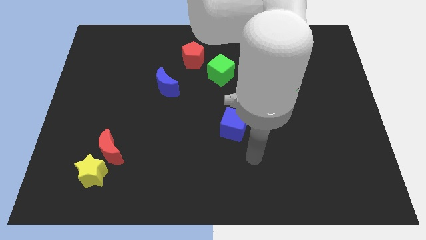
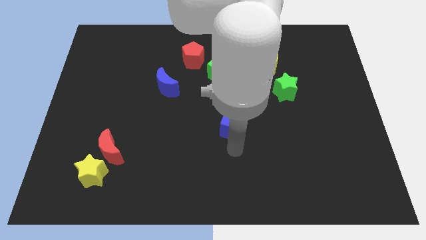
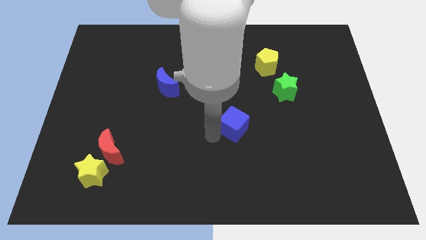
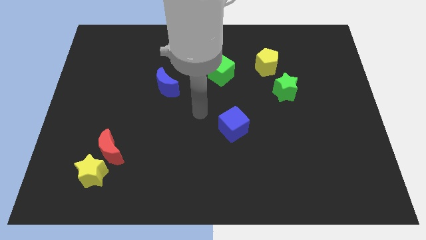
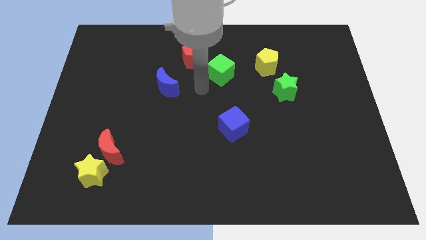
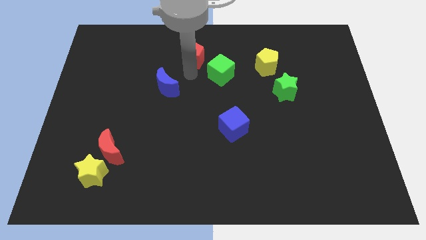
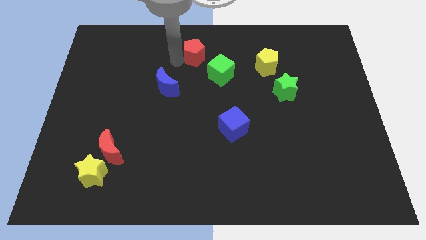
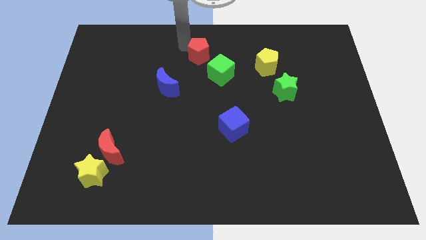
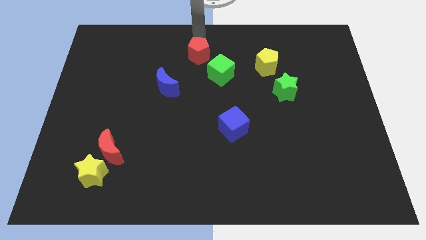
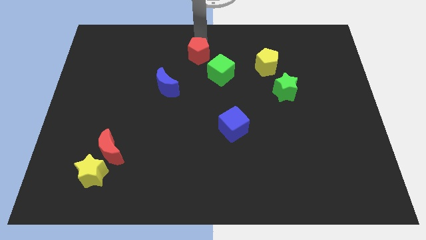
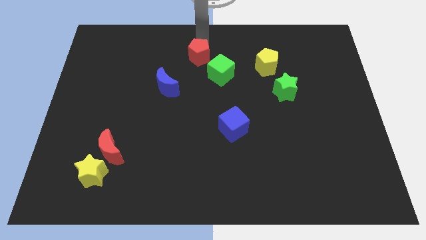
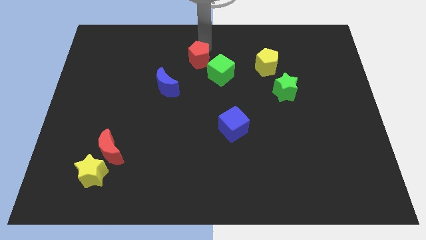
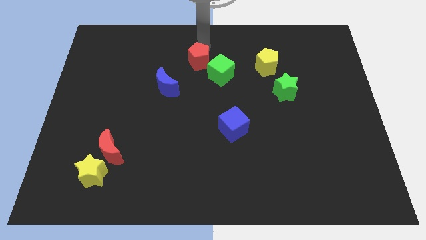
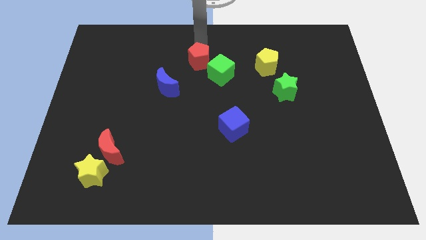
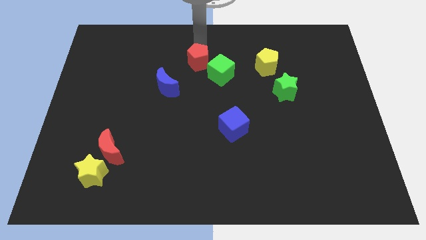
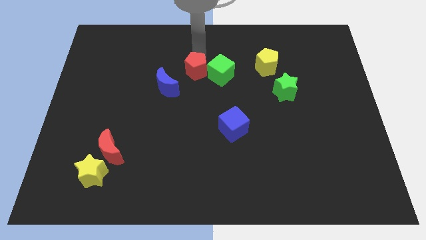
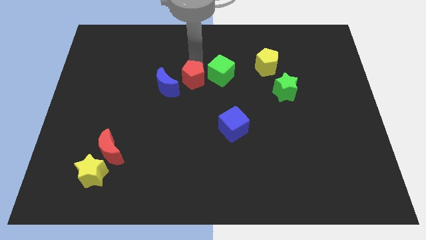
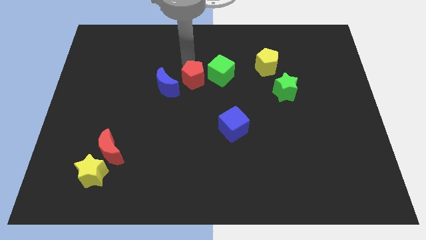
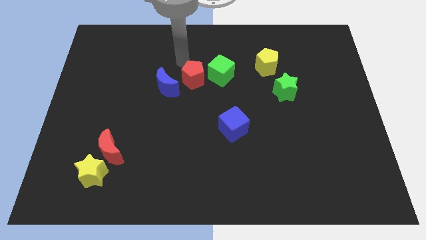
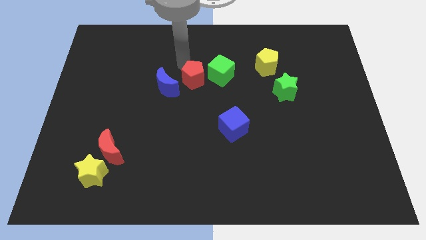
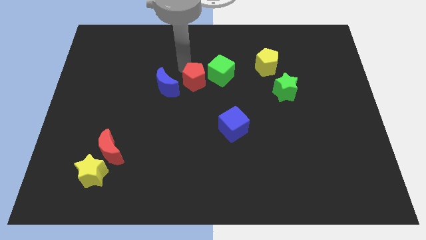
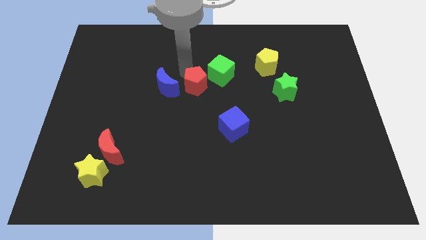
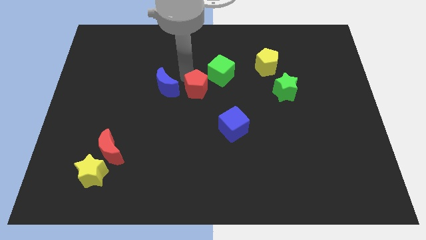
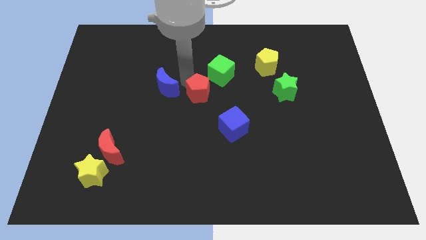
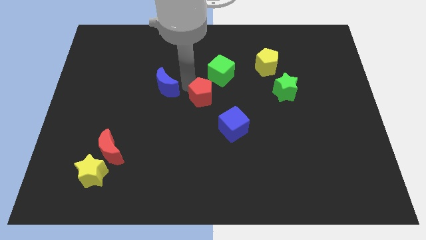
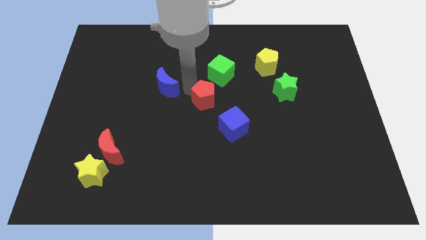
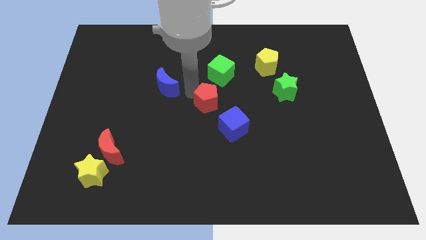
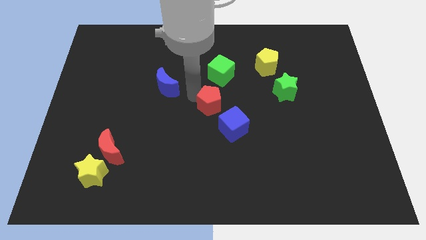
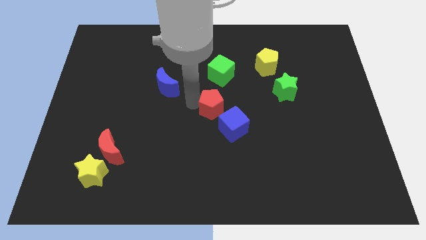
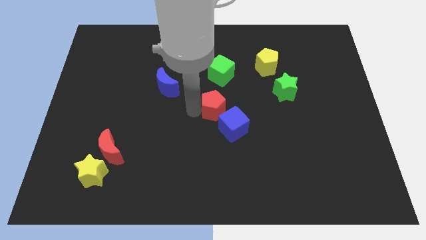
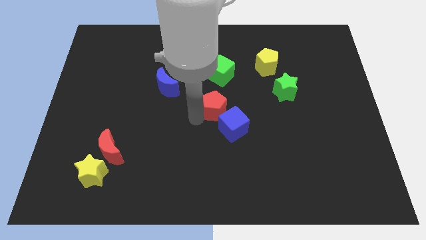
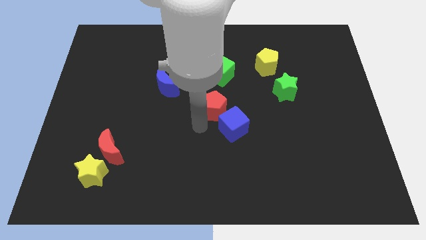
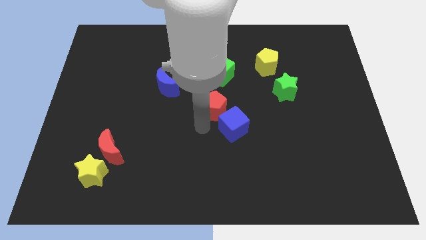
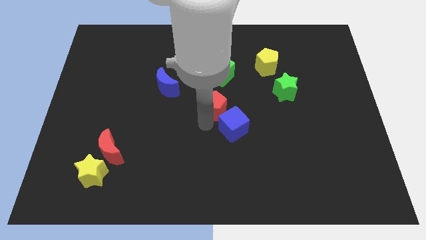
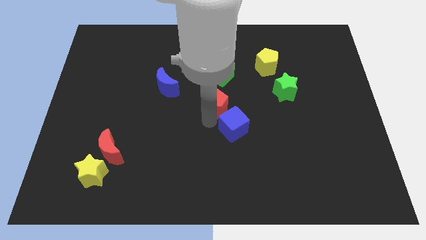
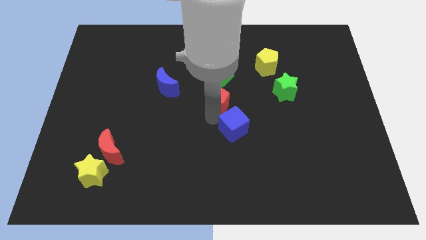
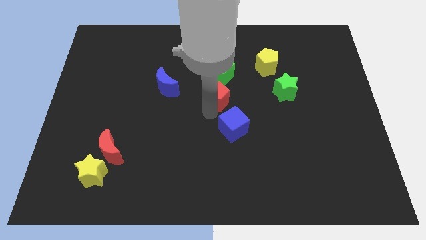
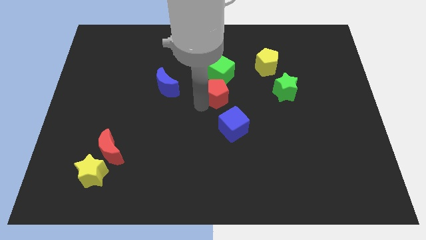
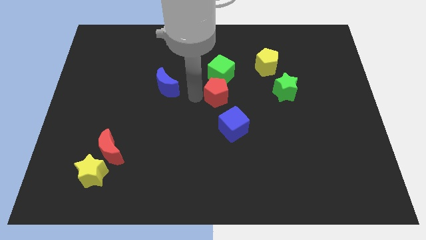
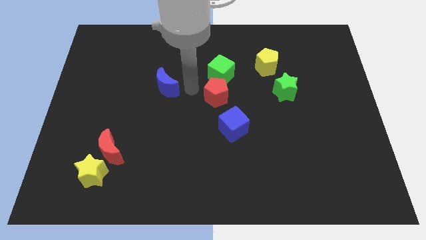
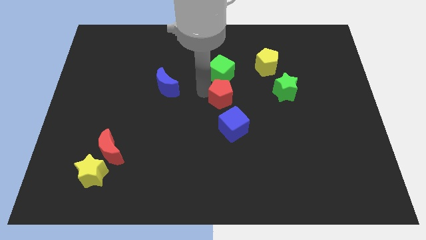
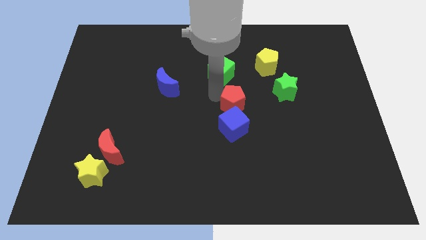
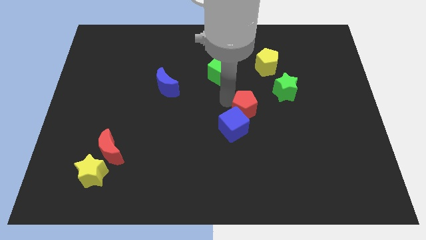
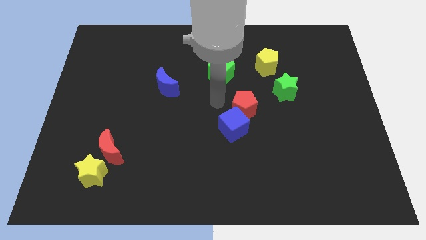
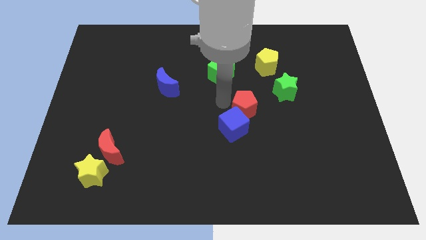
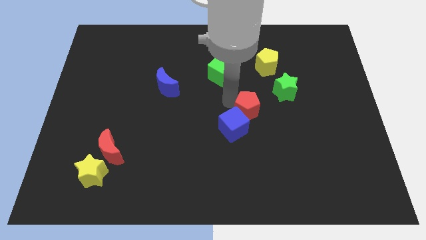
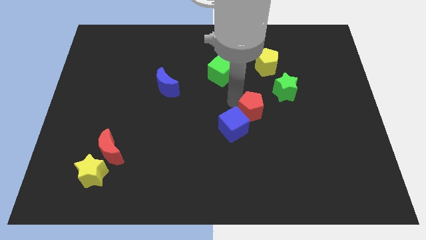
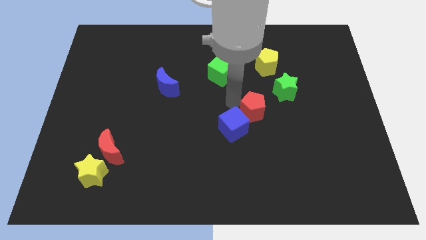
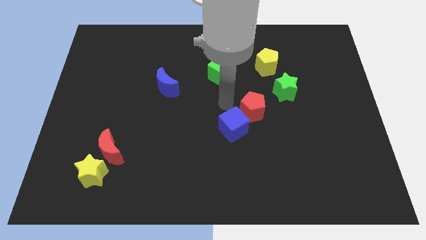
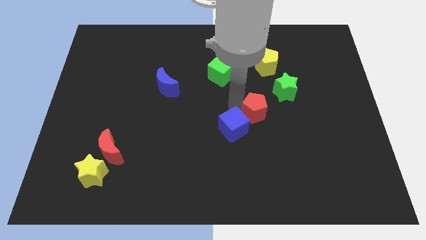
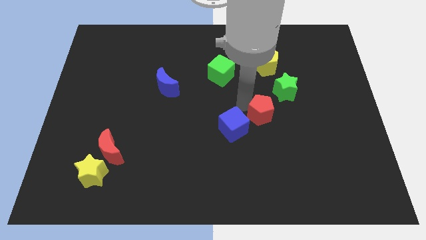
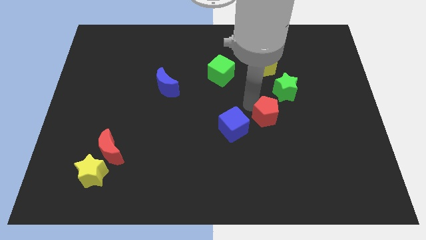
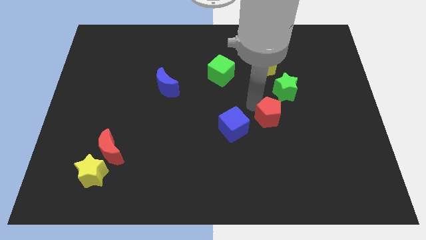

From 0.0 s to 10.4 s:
push the red pentagon to the bottom of the green star

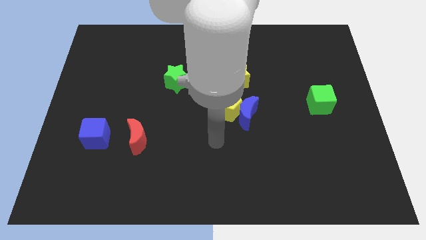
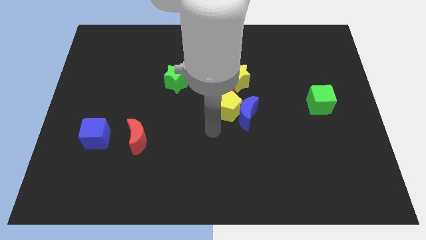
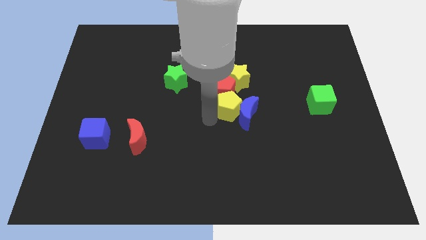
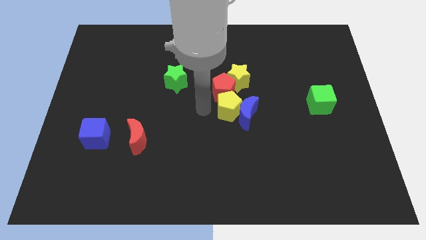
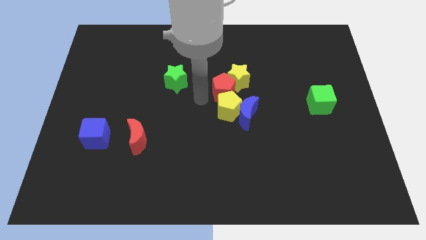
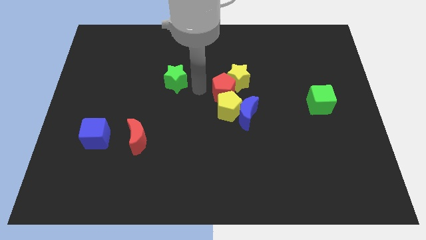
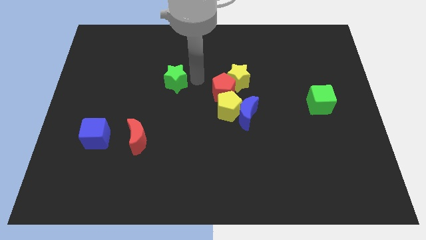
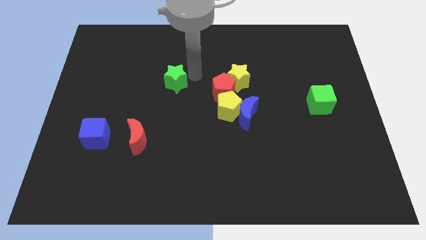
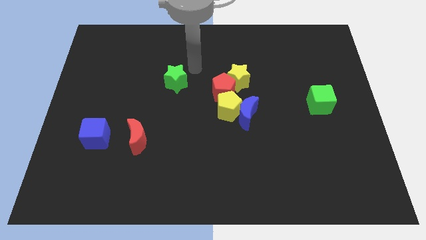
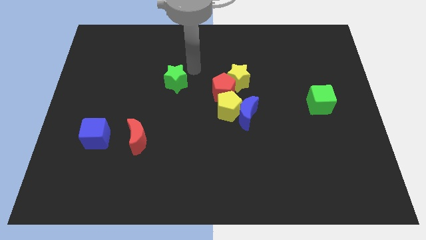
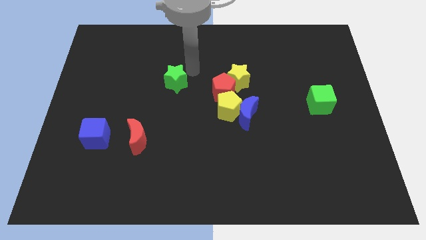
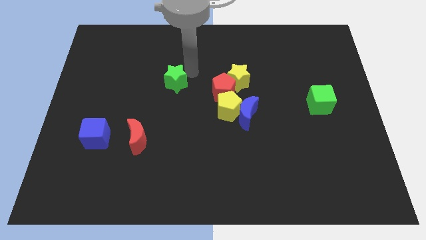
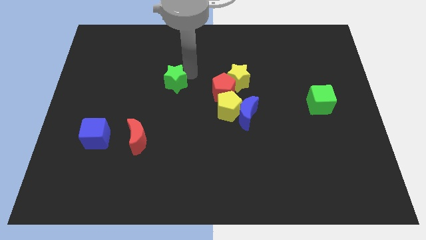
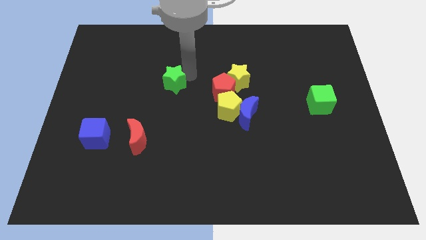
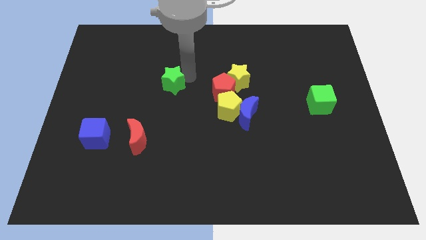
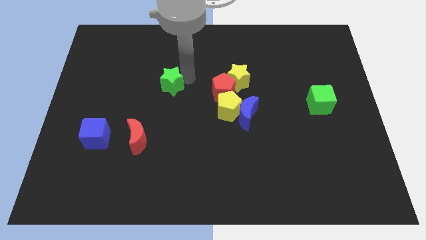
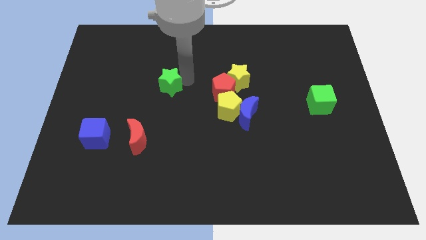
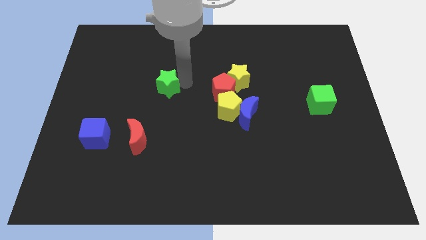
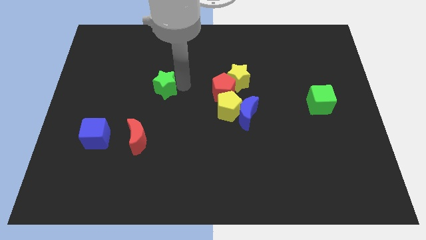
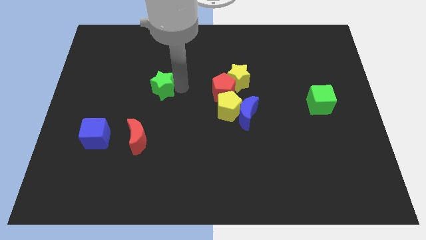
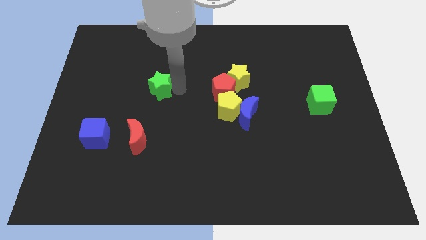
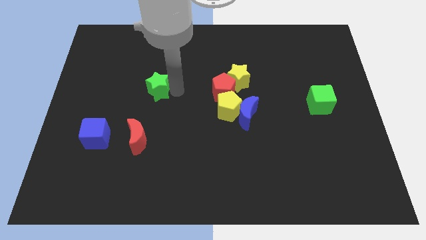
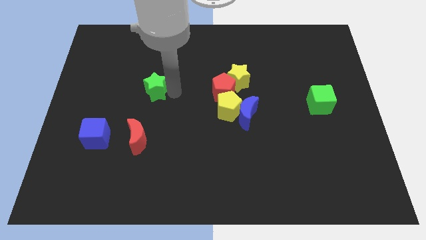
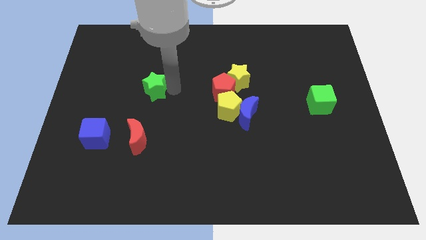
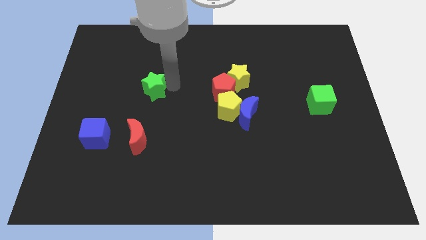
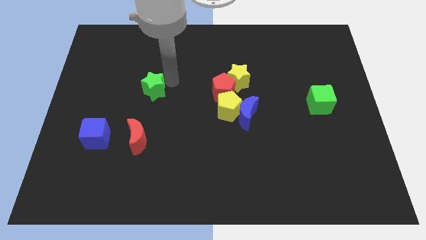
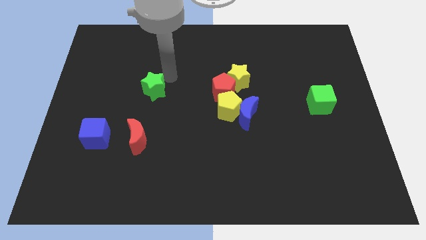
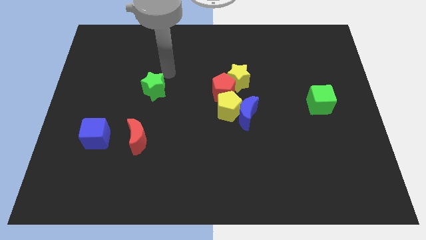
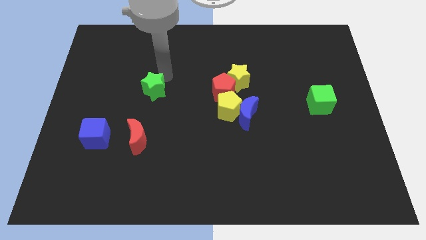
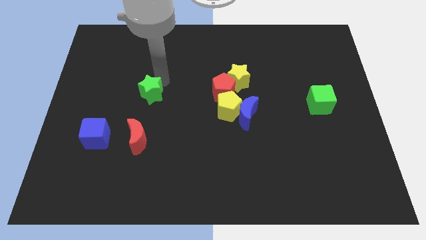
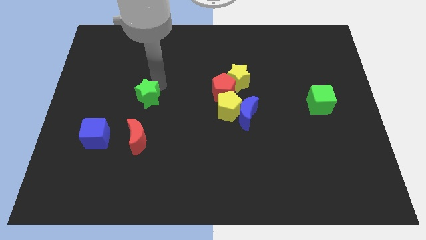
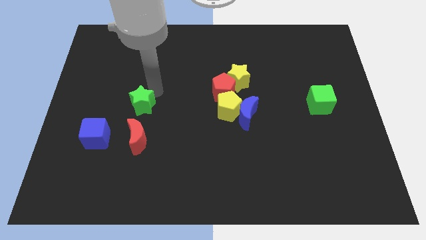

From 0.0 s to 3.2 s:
push the green star diagonally up and to the right of the blue cube
